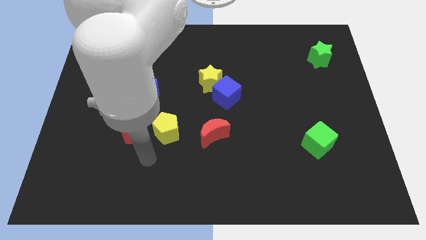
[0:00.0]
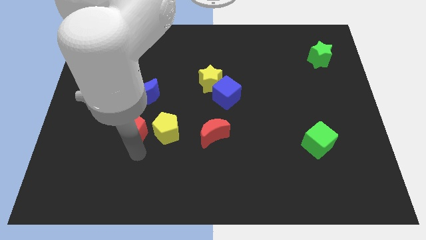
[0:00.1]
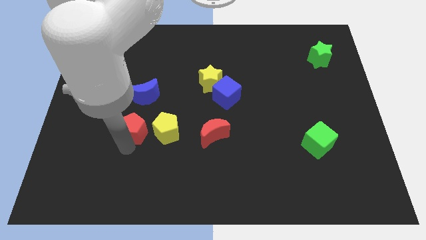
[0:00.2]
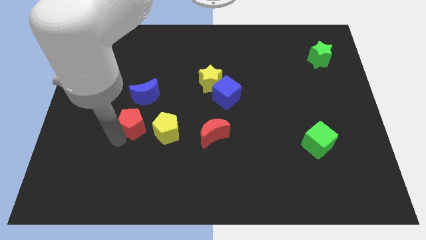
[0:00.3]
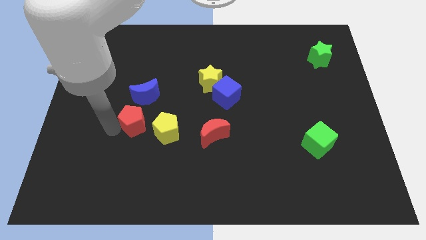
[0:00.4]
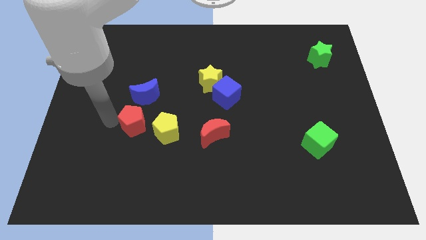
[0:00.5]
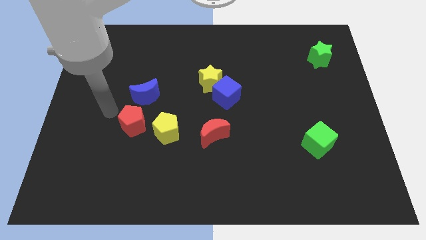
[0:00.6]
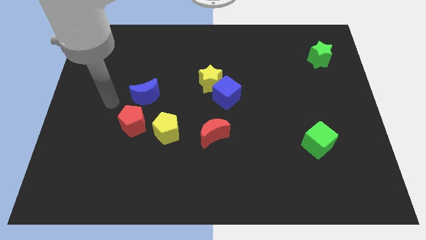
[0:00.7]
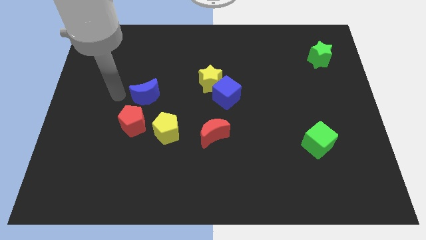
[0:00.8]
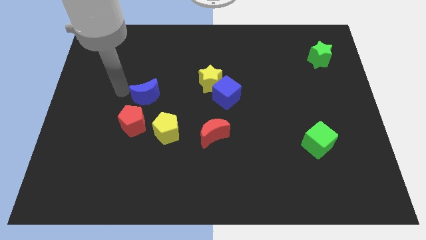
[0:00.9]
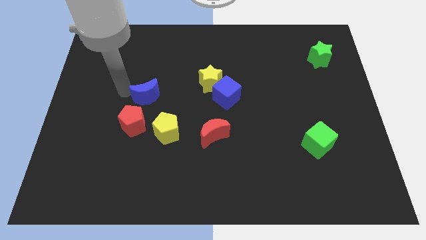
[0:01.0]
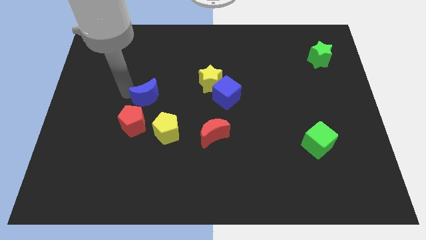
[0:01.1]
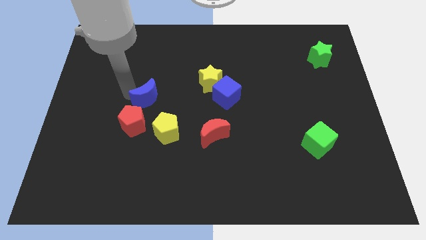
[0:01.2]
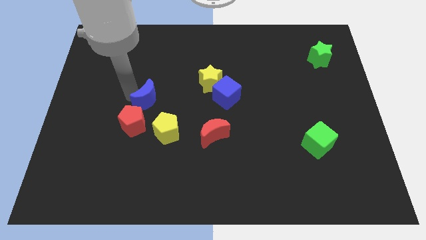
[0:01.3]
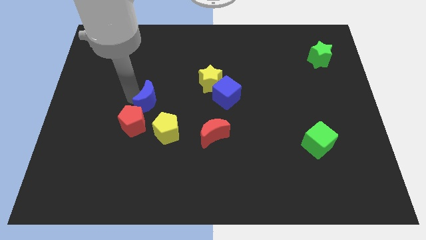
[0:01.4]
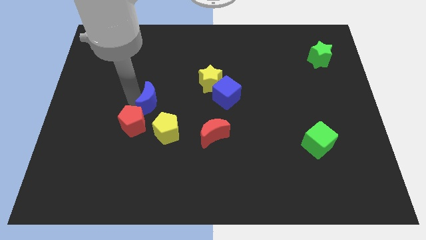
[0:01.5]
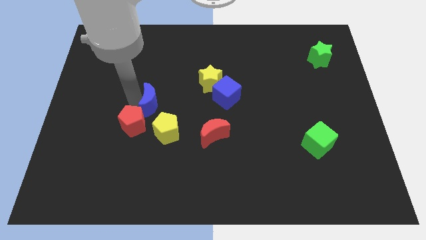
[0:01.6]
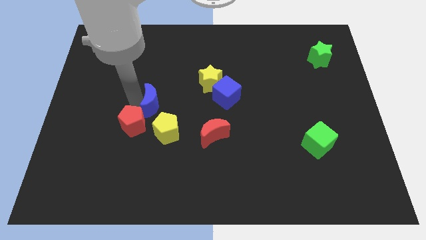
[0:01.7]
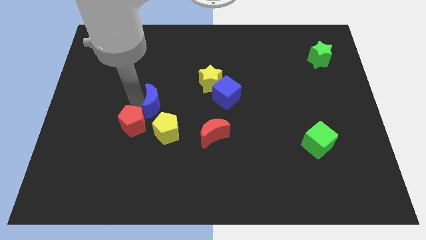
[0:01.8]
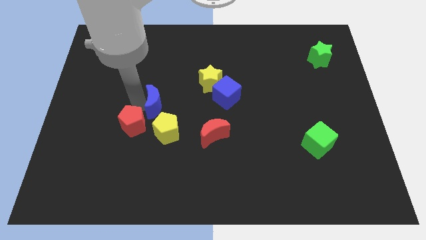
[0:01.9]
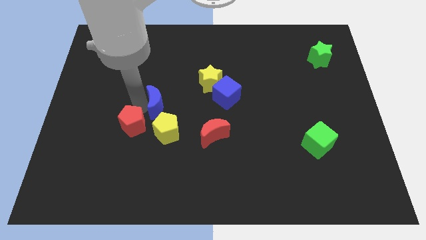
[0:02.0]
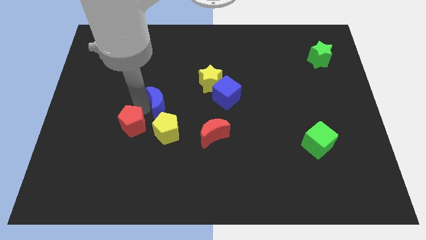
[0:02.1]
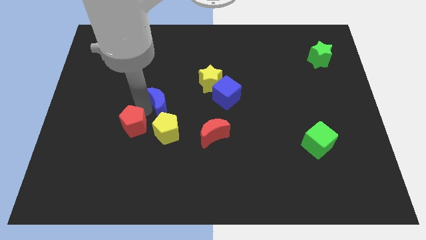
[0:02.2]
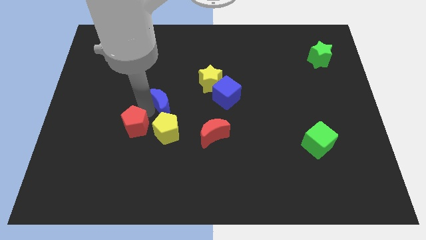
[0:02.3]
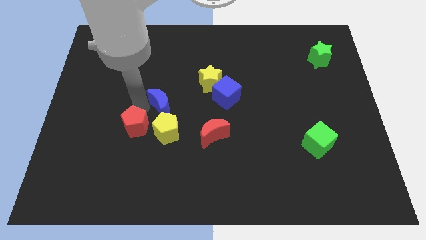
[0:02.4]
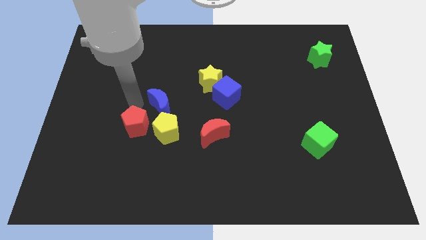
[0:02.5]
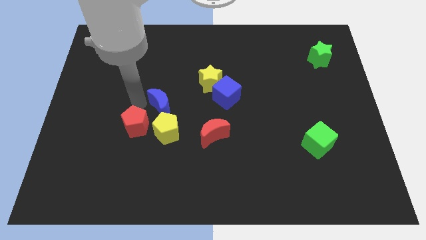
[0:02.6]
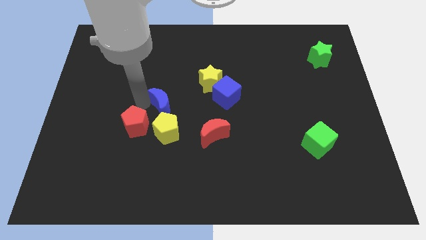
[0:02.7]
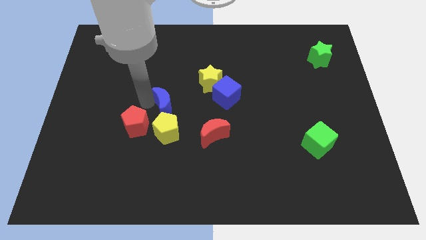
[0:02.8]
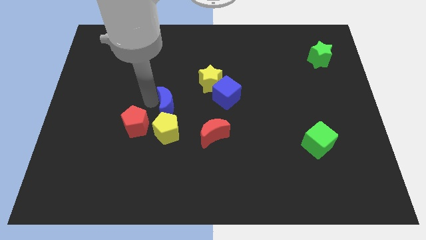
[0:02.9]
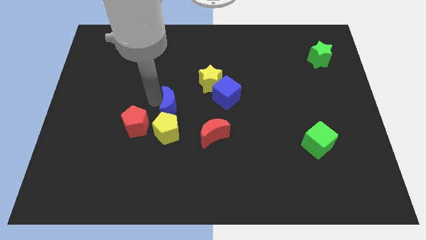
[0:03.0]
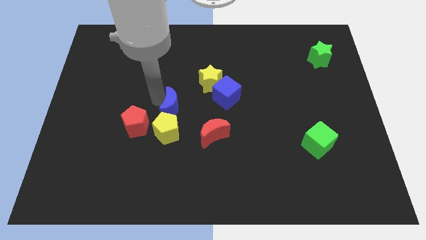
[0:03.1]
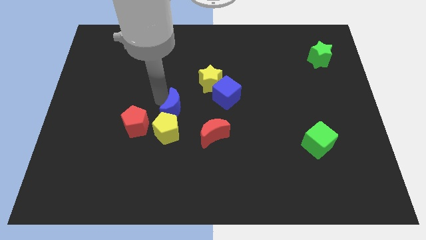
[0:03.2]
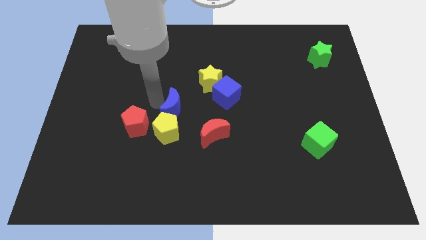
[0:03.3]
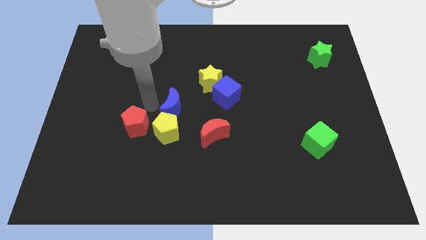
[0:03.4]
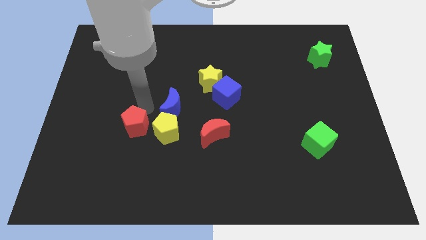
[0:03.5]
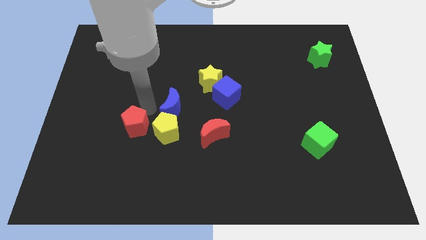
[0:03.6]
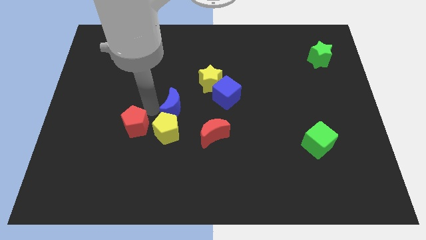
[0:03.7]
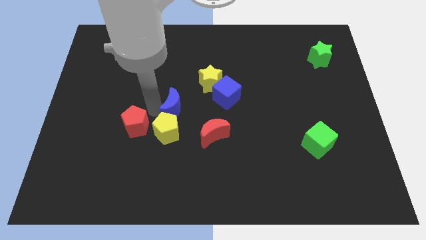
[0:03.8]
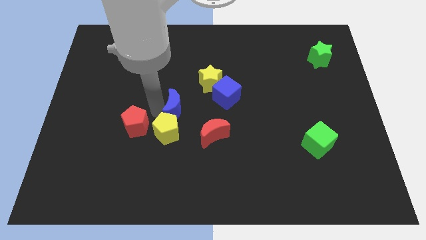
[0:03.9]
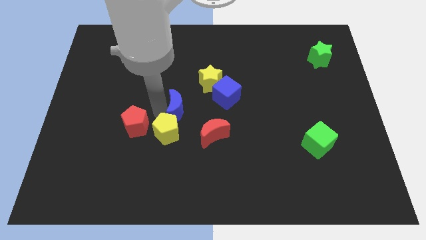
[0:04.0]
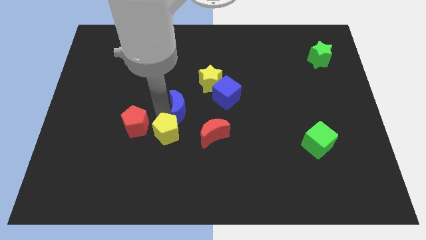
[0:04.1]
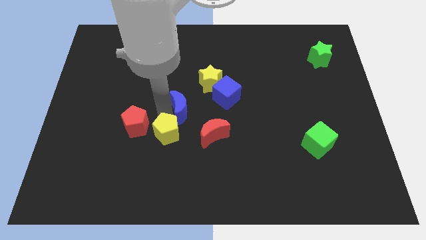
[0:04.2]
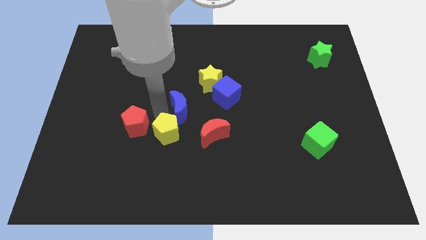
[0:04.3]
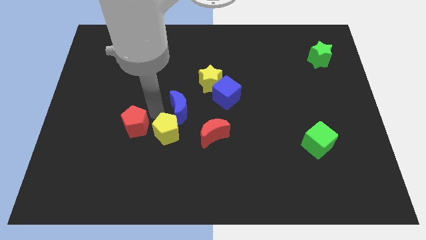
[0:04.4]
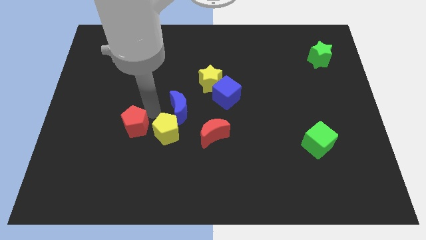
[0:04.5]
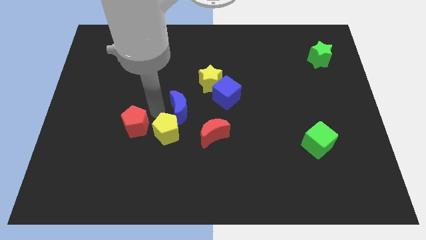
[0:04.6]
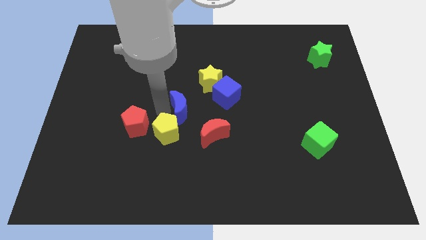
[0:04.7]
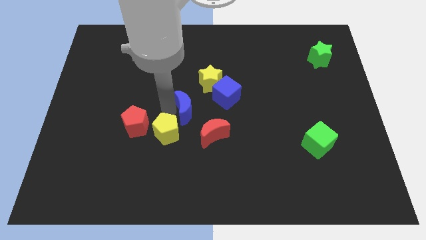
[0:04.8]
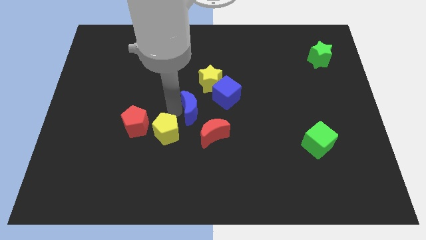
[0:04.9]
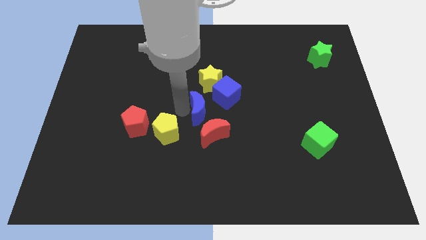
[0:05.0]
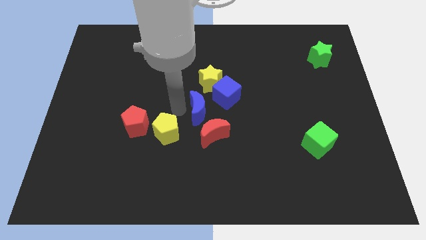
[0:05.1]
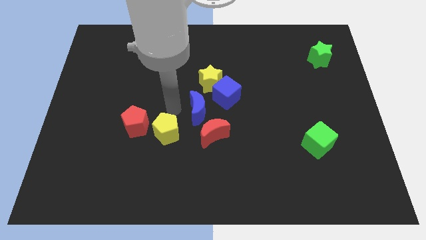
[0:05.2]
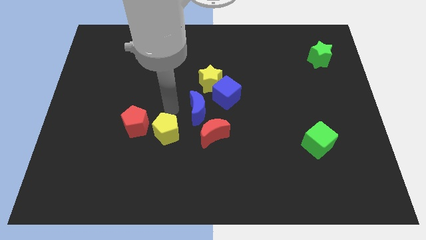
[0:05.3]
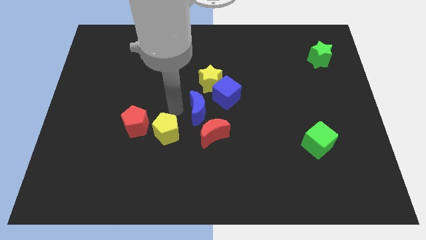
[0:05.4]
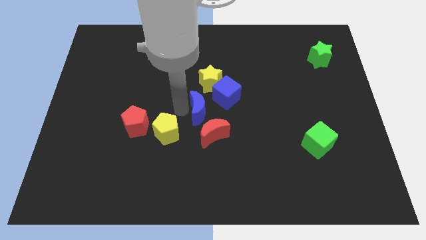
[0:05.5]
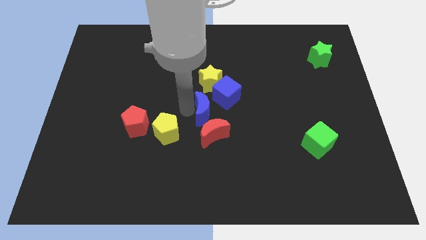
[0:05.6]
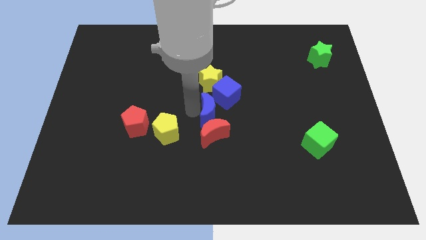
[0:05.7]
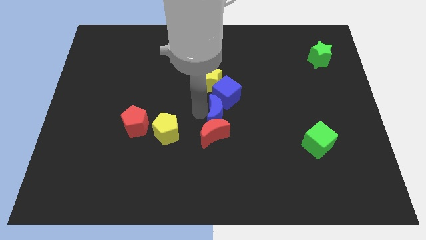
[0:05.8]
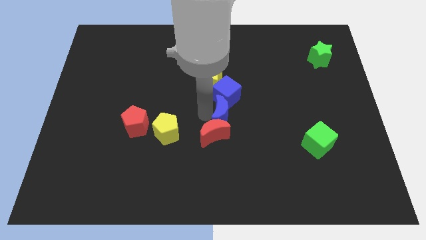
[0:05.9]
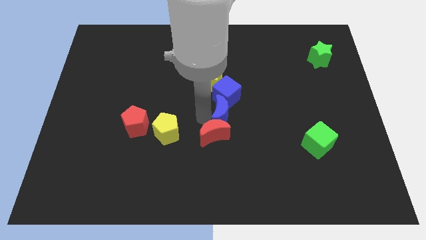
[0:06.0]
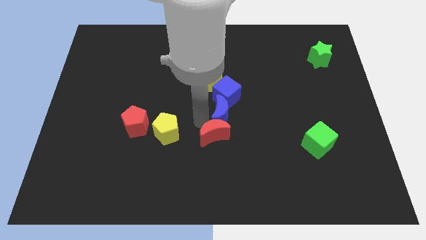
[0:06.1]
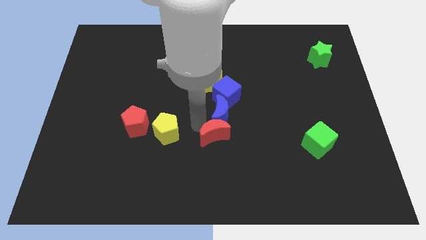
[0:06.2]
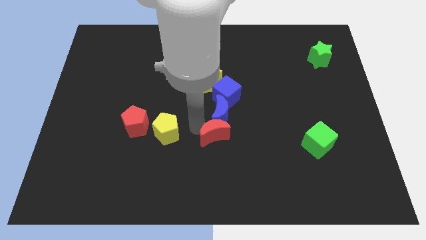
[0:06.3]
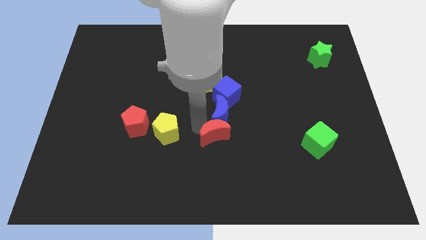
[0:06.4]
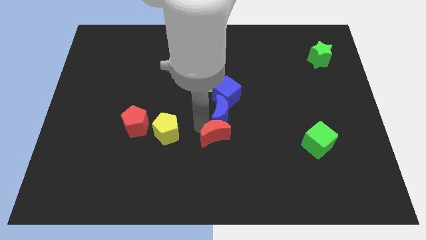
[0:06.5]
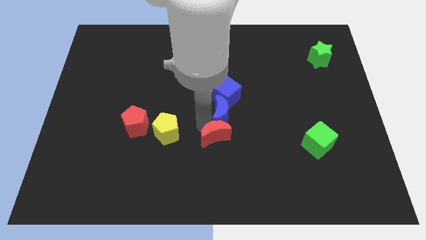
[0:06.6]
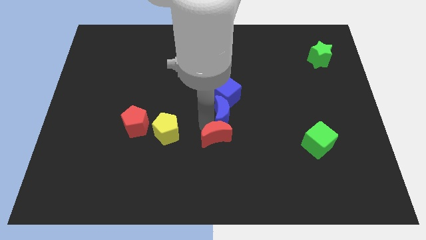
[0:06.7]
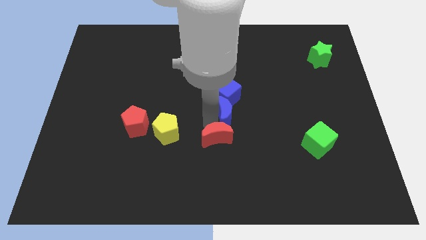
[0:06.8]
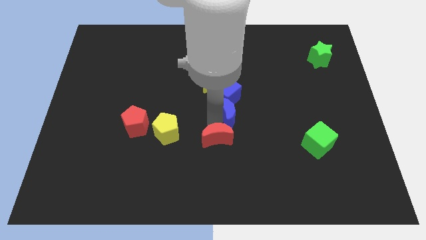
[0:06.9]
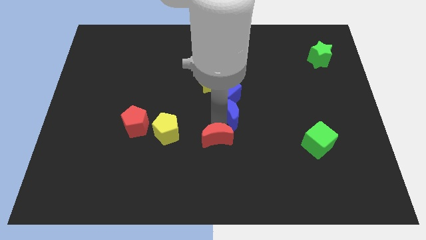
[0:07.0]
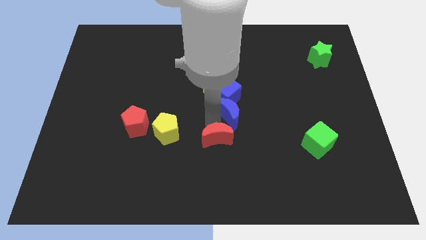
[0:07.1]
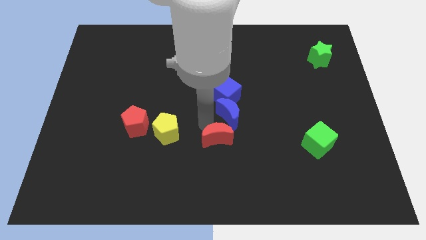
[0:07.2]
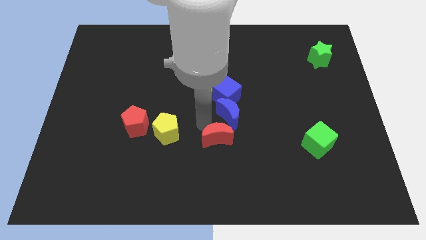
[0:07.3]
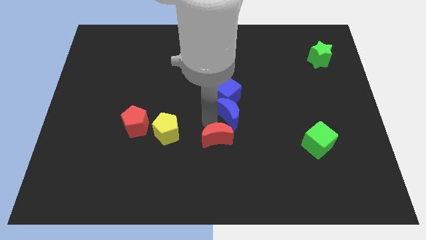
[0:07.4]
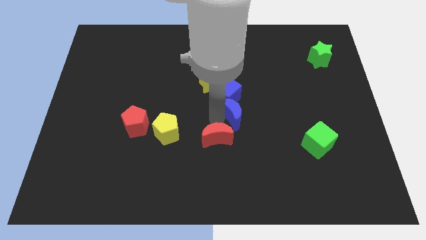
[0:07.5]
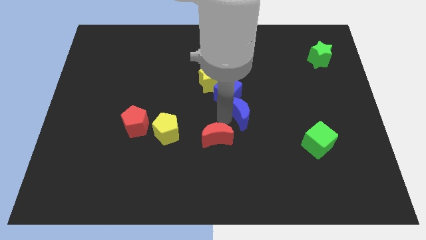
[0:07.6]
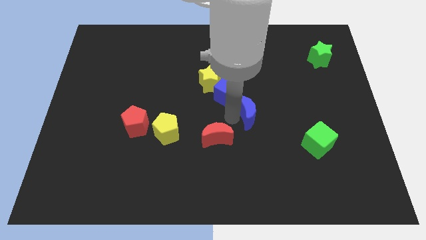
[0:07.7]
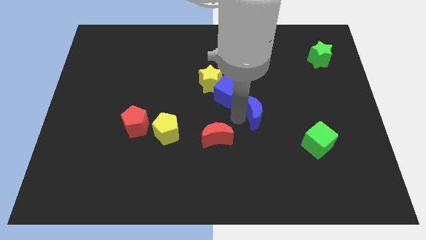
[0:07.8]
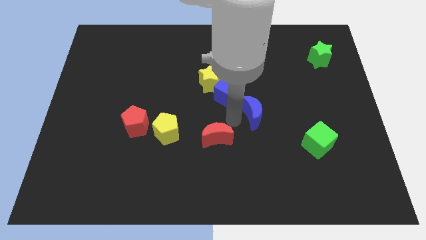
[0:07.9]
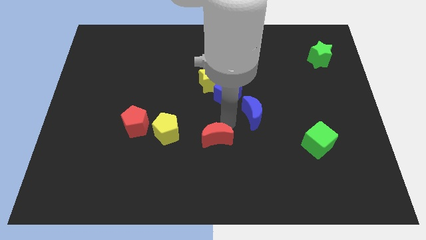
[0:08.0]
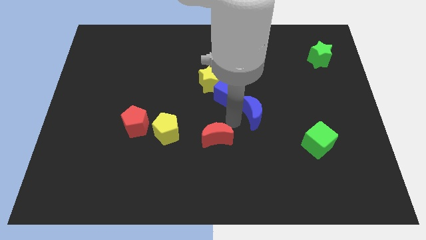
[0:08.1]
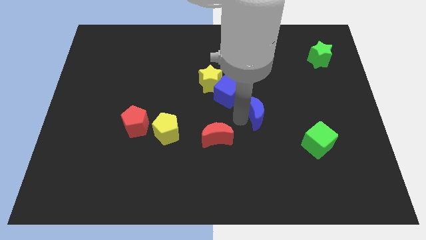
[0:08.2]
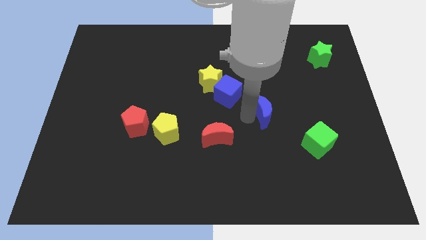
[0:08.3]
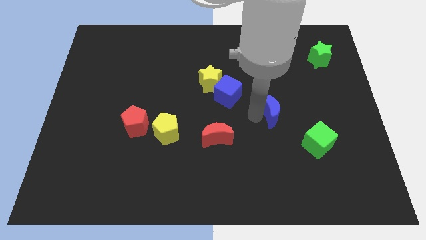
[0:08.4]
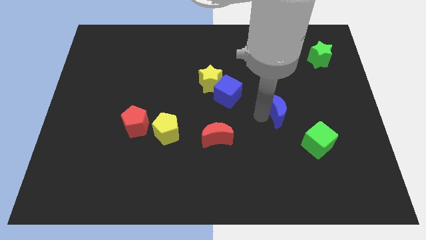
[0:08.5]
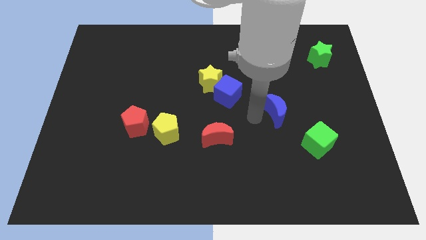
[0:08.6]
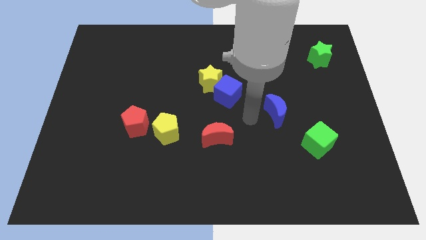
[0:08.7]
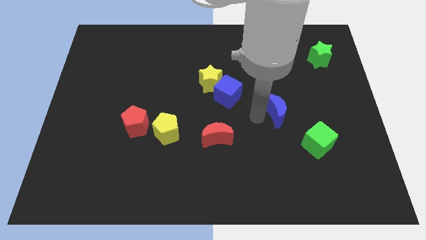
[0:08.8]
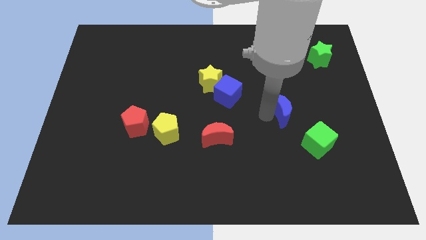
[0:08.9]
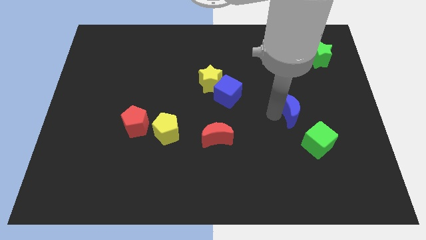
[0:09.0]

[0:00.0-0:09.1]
push the blue moon above the green cube
